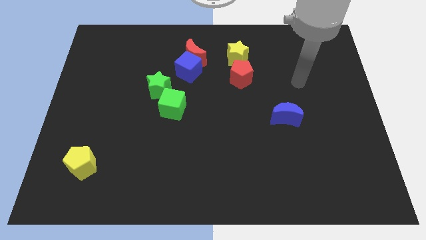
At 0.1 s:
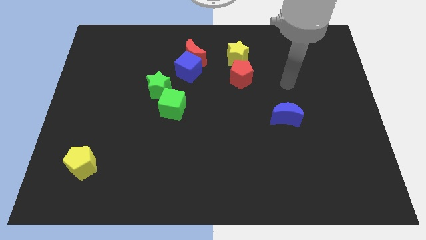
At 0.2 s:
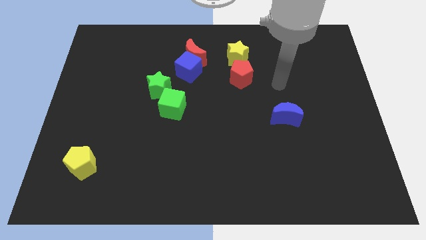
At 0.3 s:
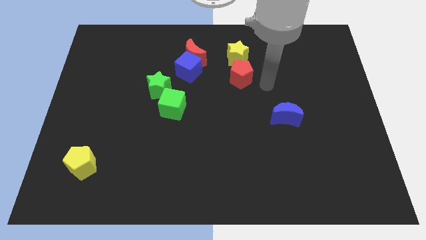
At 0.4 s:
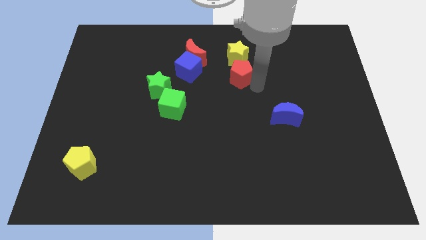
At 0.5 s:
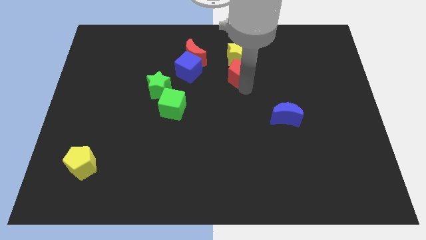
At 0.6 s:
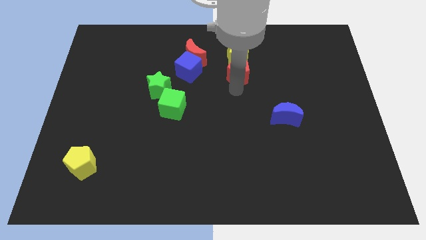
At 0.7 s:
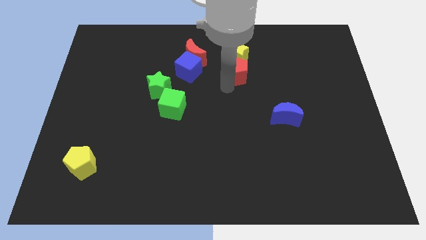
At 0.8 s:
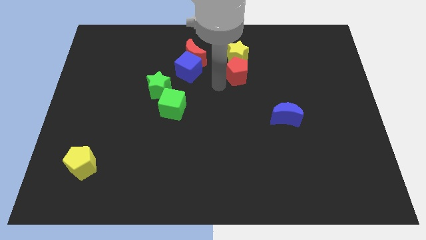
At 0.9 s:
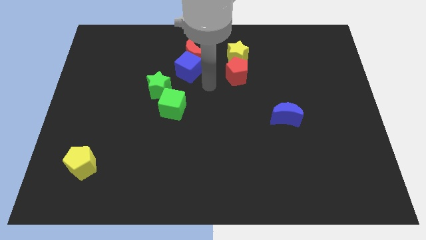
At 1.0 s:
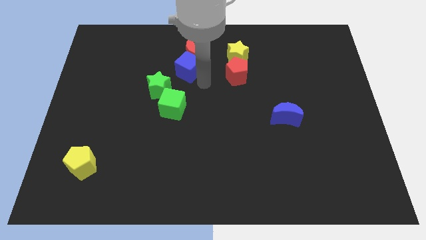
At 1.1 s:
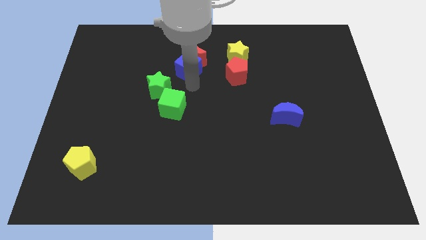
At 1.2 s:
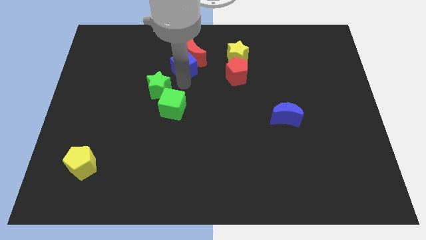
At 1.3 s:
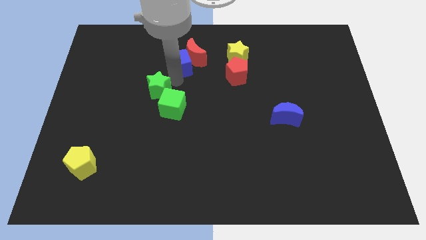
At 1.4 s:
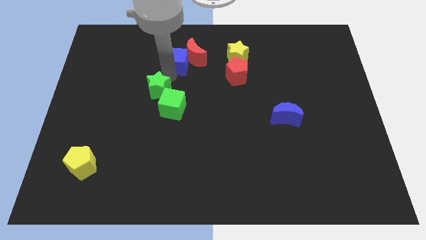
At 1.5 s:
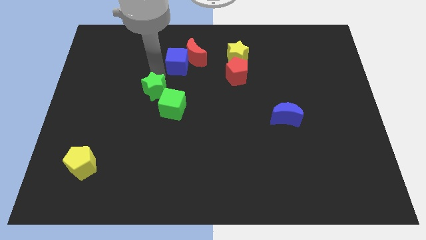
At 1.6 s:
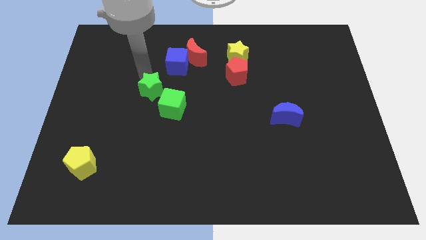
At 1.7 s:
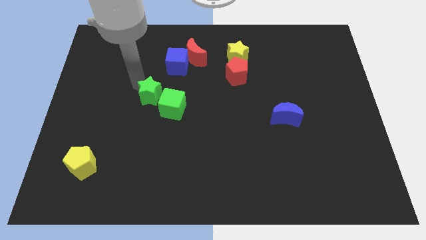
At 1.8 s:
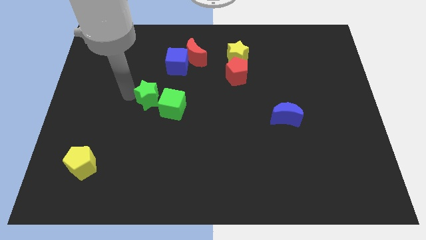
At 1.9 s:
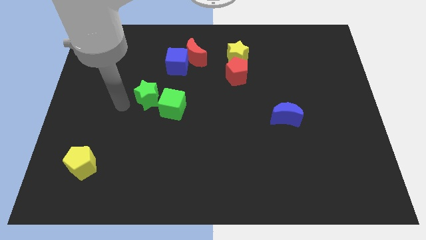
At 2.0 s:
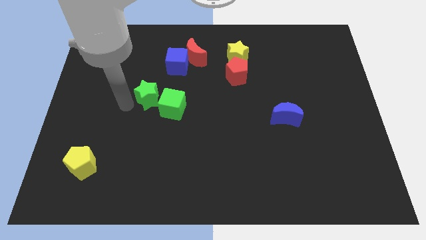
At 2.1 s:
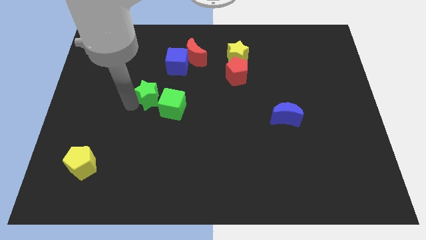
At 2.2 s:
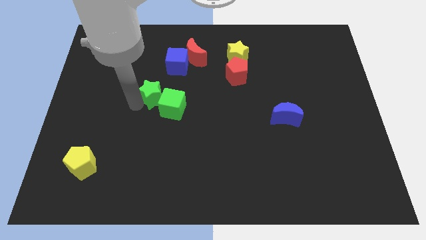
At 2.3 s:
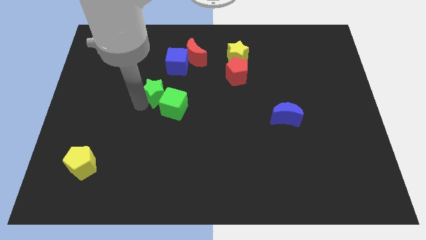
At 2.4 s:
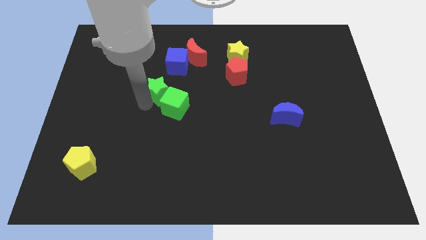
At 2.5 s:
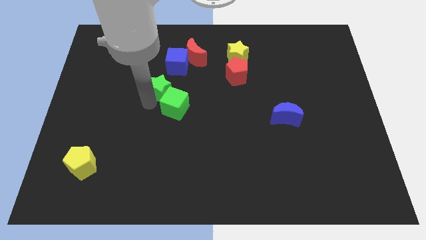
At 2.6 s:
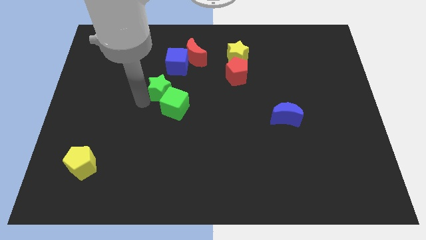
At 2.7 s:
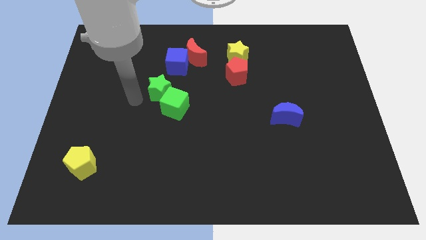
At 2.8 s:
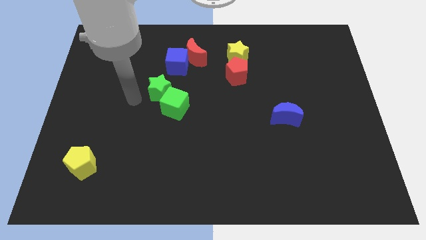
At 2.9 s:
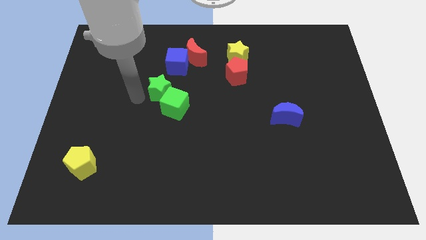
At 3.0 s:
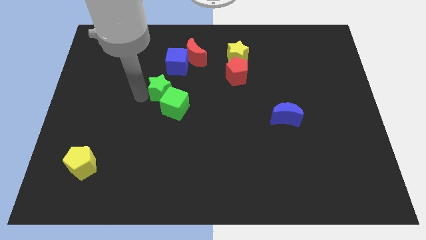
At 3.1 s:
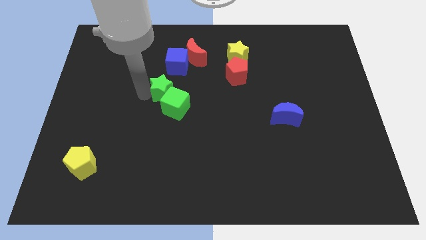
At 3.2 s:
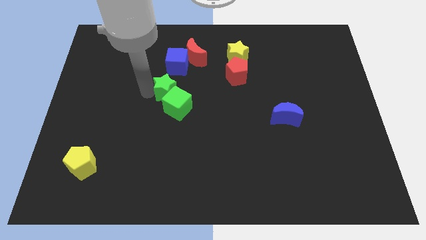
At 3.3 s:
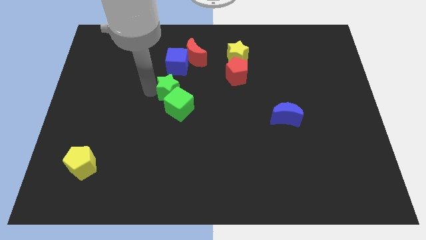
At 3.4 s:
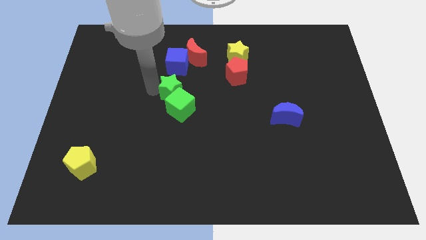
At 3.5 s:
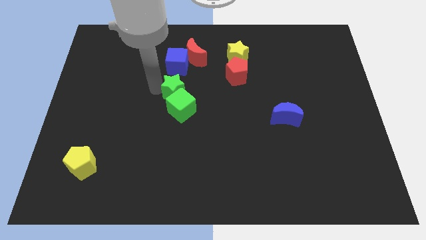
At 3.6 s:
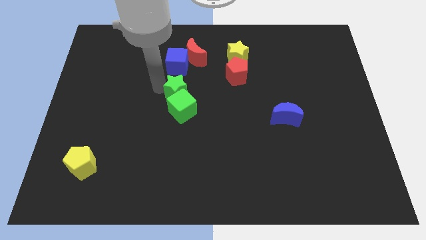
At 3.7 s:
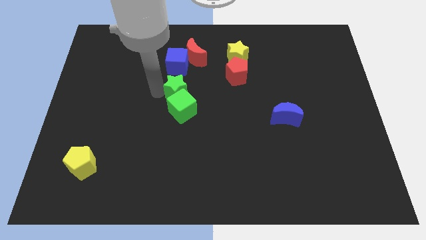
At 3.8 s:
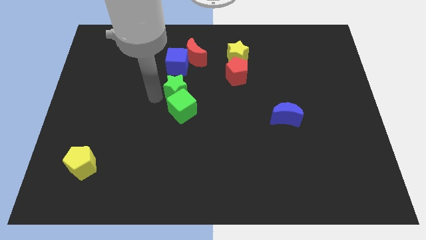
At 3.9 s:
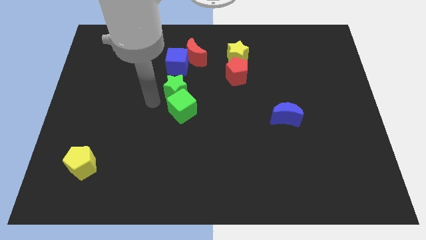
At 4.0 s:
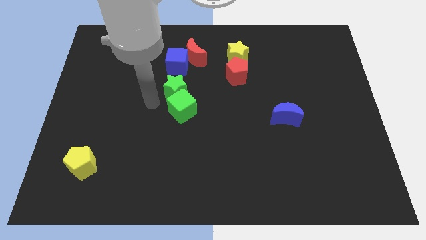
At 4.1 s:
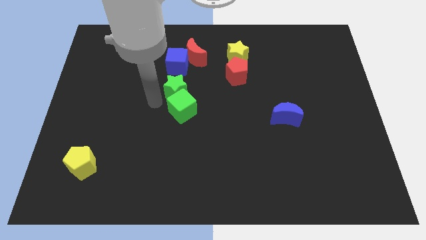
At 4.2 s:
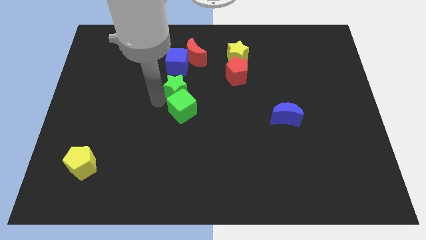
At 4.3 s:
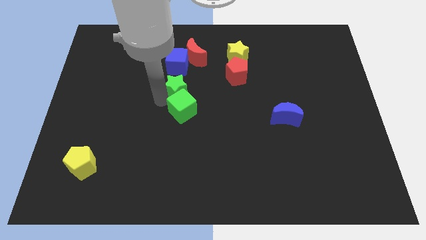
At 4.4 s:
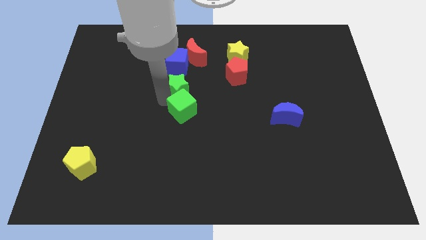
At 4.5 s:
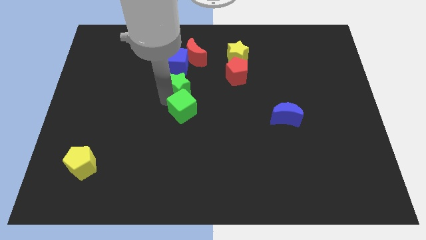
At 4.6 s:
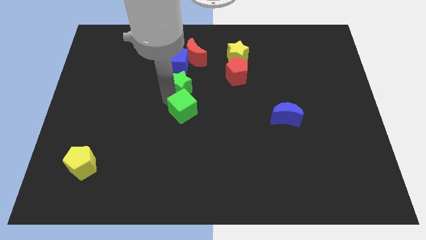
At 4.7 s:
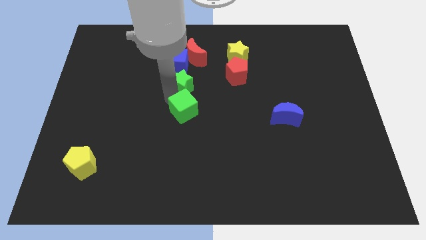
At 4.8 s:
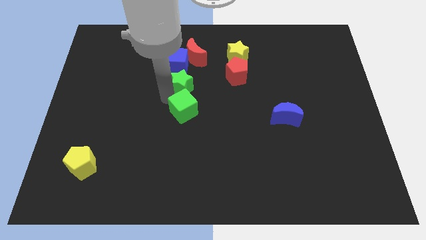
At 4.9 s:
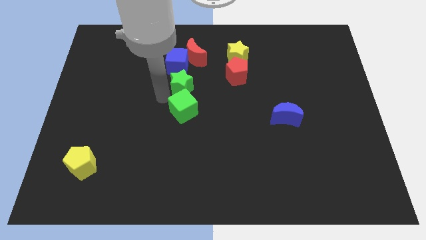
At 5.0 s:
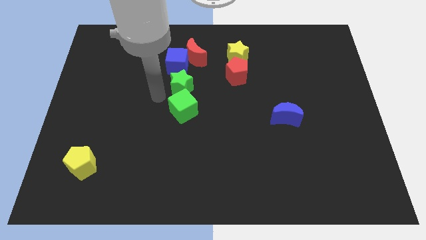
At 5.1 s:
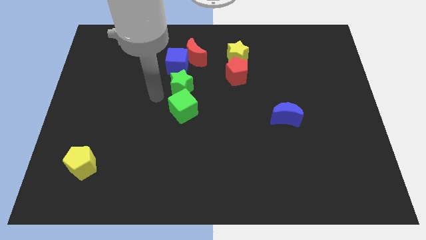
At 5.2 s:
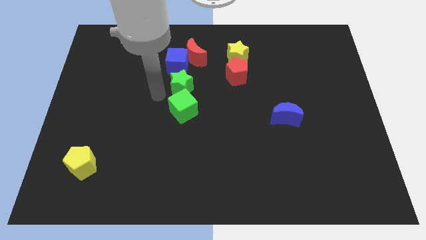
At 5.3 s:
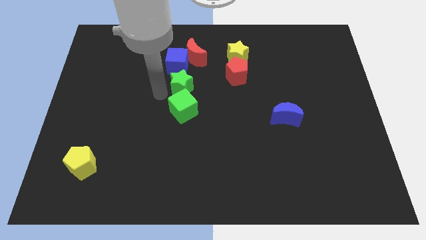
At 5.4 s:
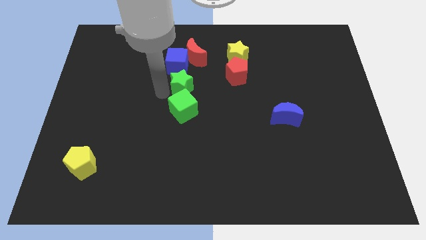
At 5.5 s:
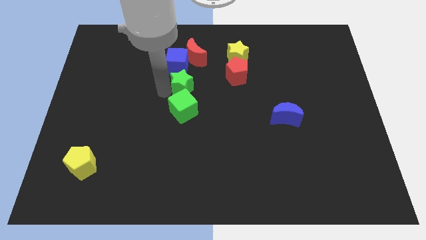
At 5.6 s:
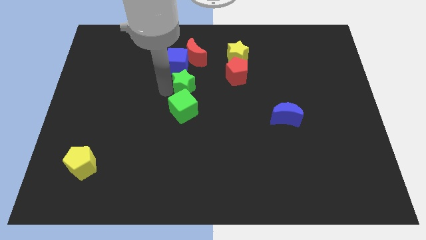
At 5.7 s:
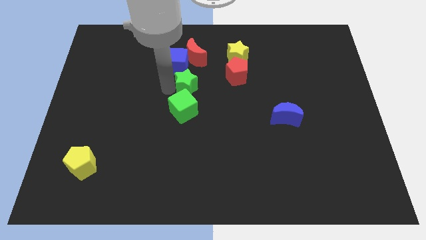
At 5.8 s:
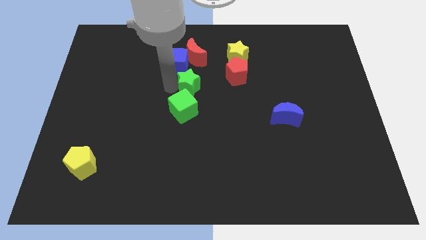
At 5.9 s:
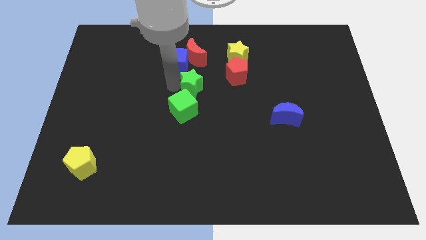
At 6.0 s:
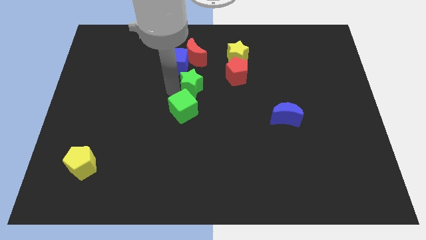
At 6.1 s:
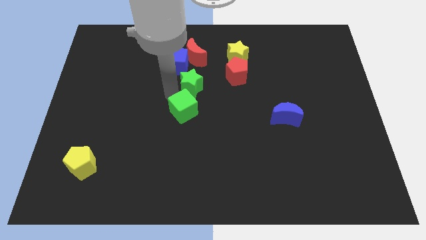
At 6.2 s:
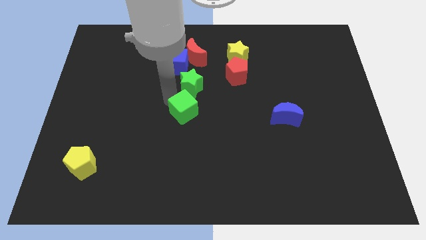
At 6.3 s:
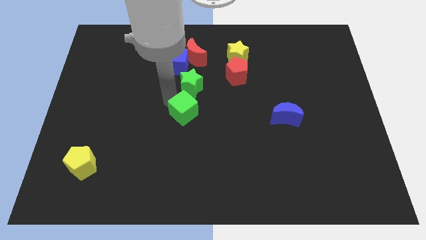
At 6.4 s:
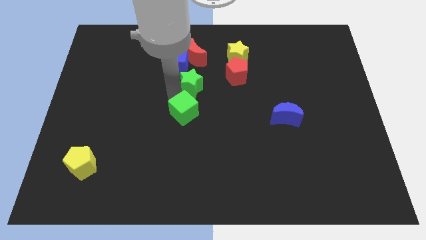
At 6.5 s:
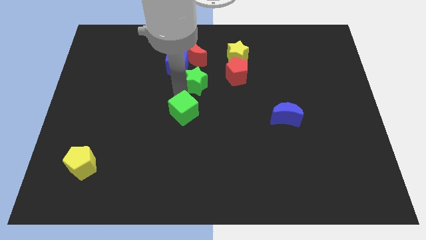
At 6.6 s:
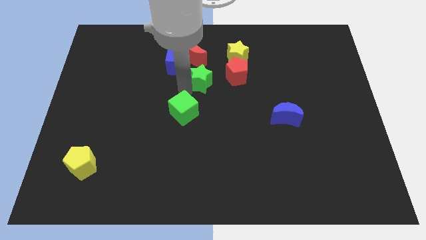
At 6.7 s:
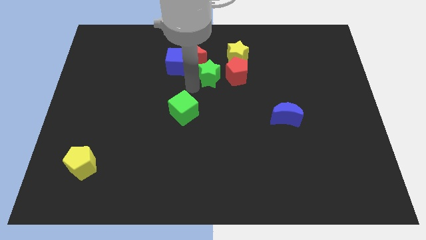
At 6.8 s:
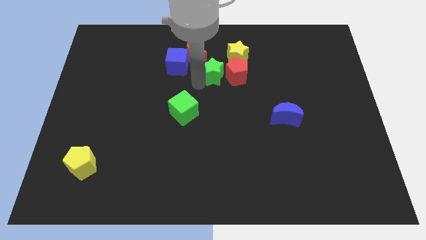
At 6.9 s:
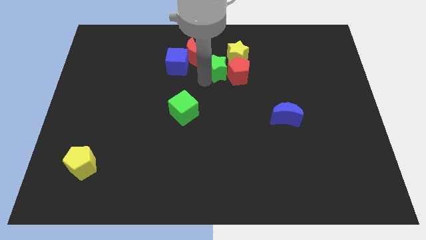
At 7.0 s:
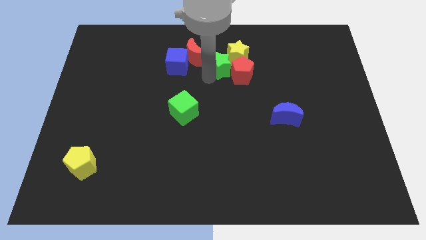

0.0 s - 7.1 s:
push the green star to the yellow star

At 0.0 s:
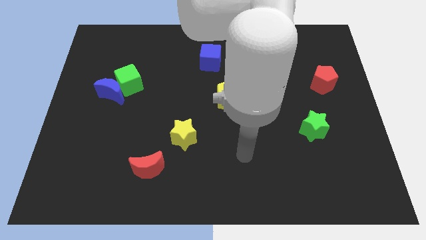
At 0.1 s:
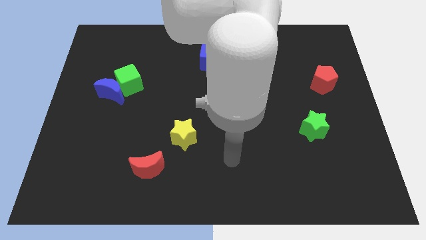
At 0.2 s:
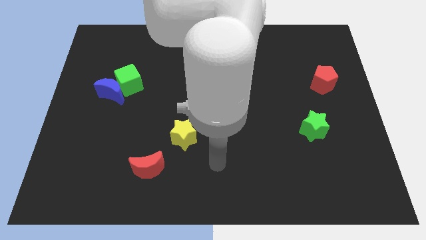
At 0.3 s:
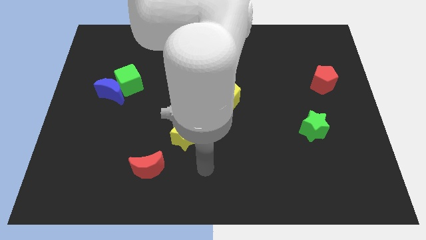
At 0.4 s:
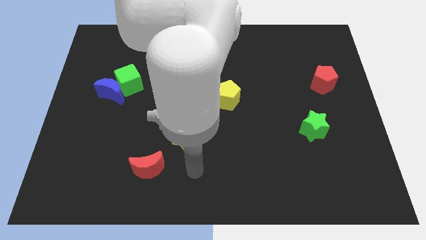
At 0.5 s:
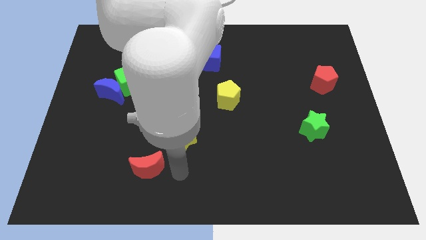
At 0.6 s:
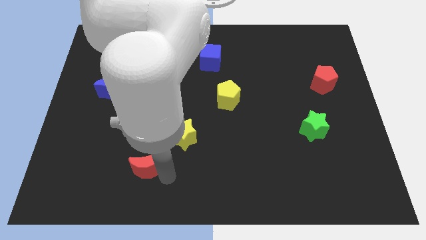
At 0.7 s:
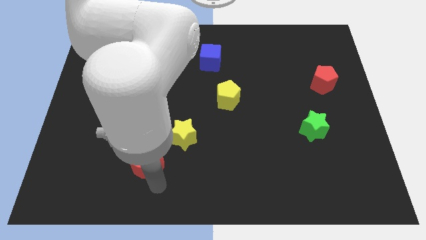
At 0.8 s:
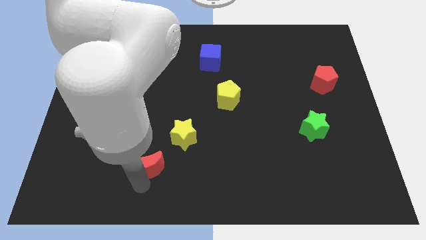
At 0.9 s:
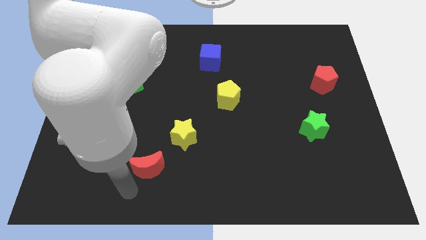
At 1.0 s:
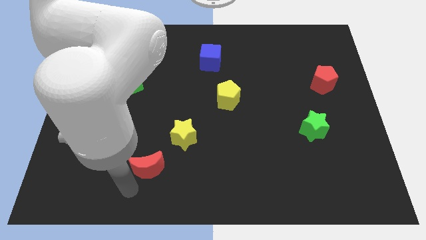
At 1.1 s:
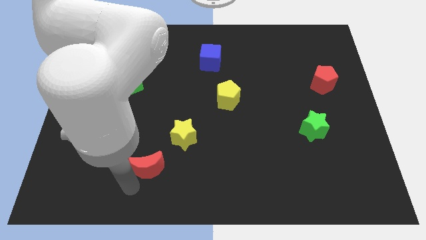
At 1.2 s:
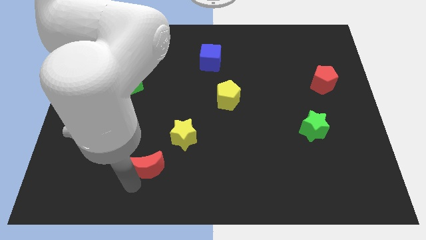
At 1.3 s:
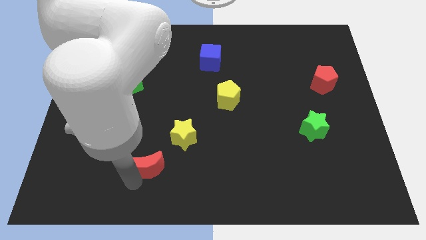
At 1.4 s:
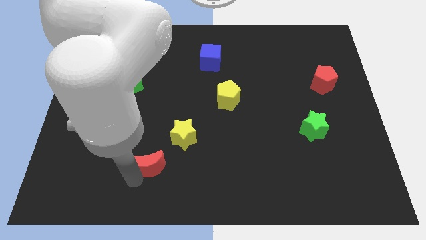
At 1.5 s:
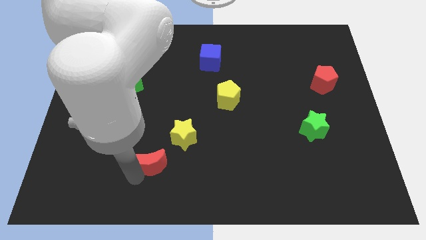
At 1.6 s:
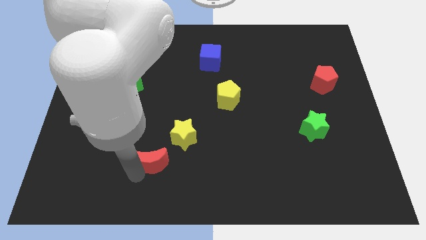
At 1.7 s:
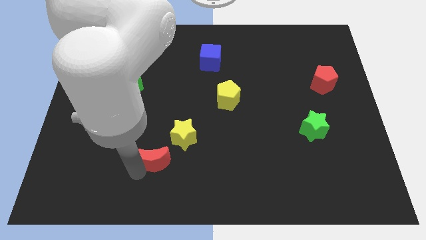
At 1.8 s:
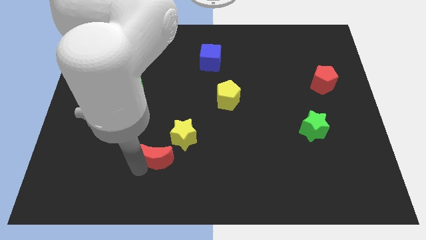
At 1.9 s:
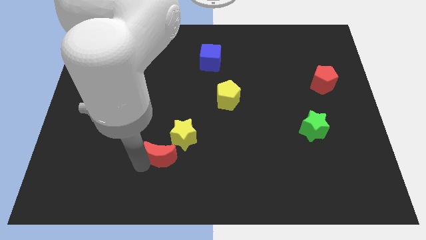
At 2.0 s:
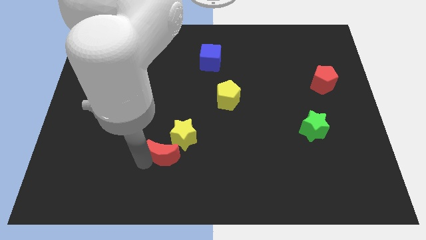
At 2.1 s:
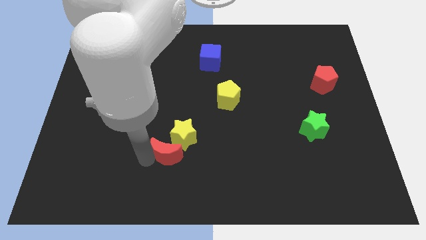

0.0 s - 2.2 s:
put the red moon towards the yellow star
